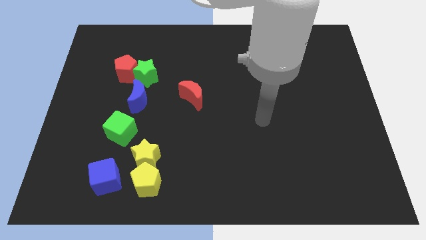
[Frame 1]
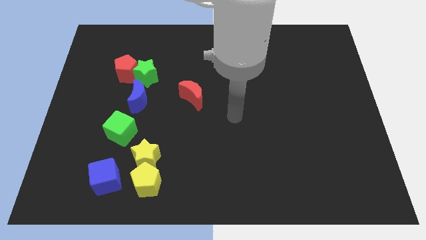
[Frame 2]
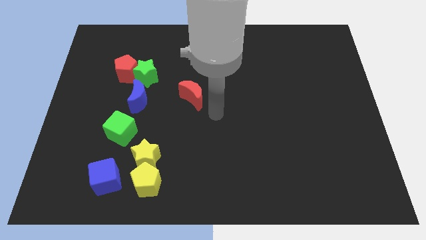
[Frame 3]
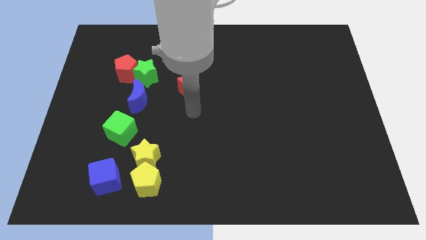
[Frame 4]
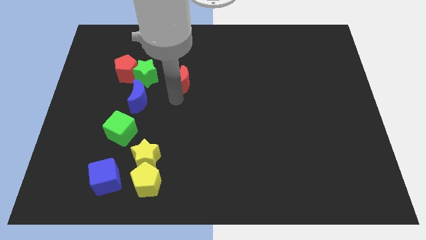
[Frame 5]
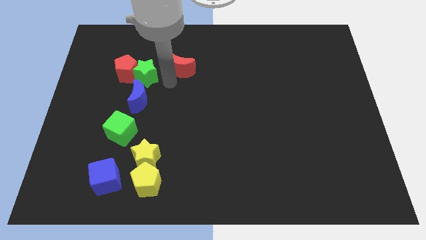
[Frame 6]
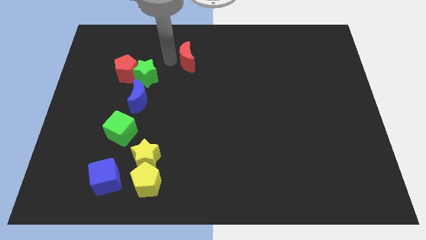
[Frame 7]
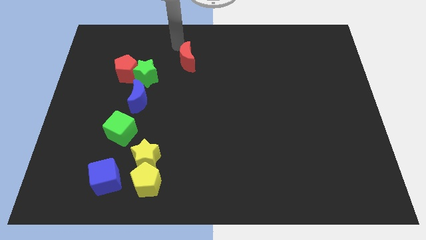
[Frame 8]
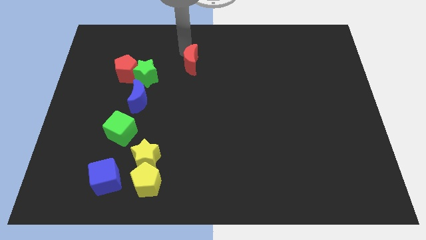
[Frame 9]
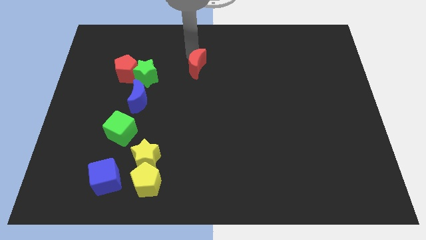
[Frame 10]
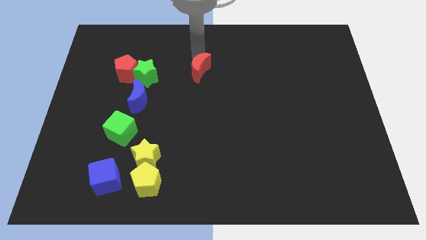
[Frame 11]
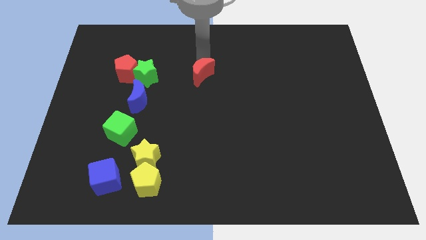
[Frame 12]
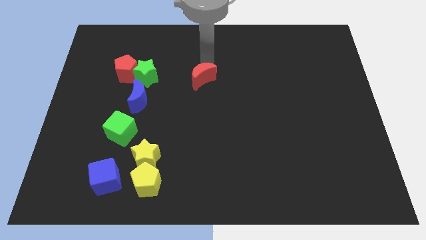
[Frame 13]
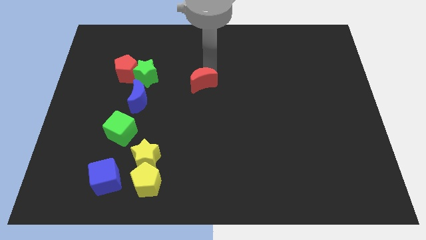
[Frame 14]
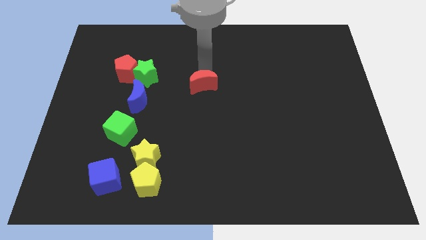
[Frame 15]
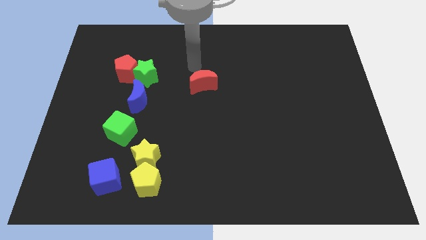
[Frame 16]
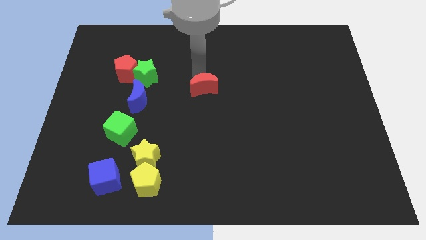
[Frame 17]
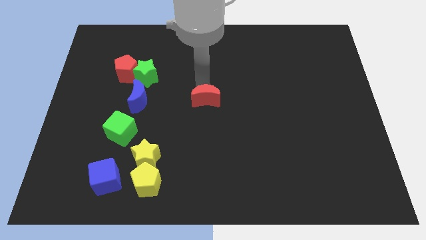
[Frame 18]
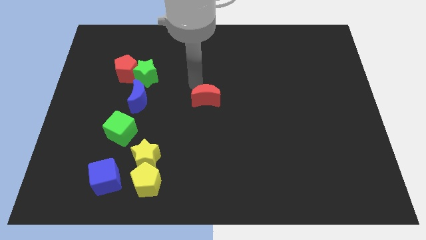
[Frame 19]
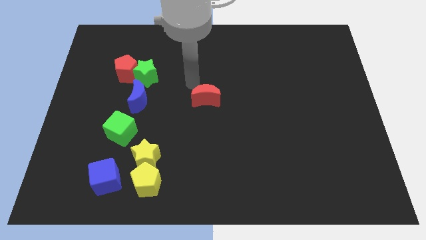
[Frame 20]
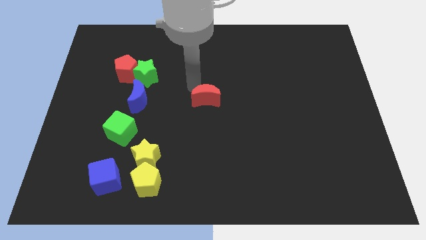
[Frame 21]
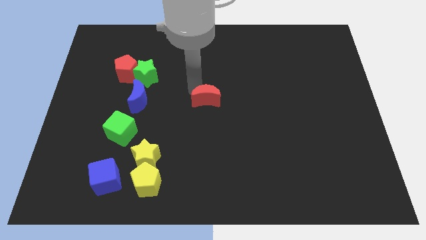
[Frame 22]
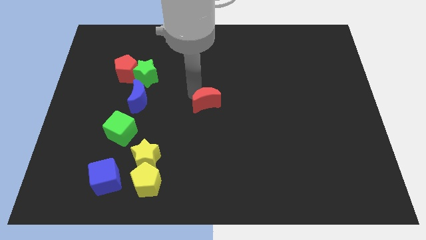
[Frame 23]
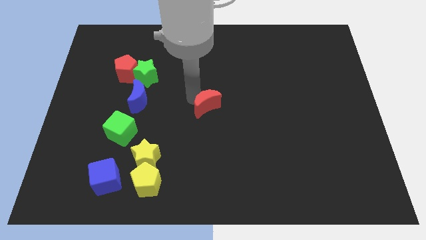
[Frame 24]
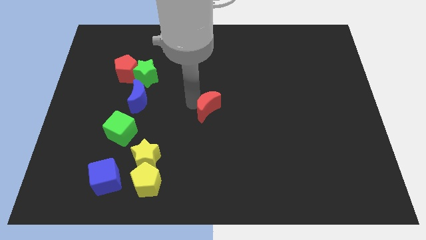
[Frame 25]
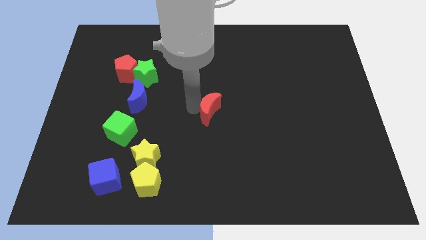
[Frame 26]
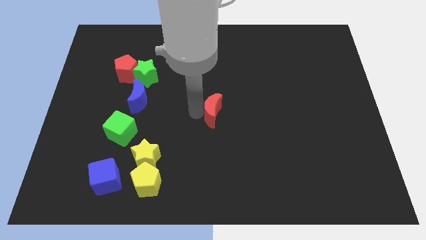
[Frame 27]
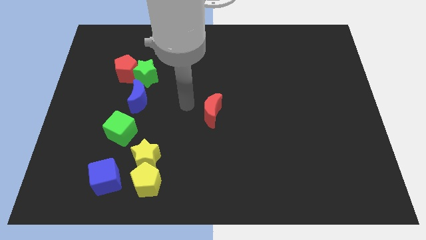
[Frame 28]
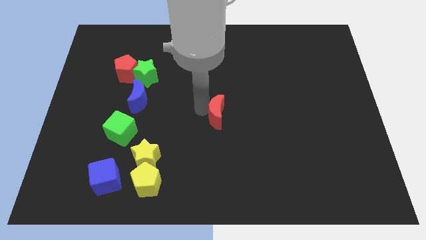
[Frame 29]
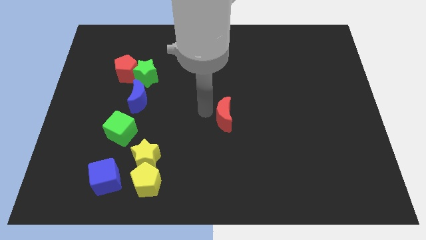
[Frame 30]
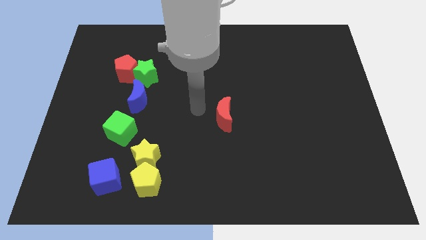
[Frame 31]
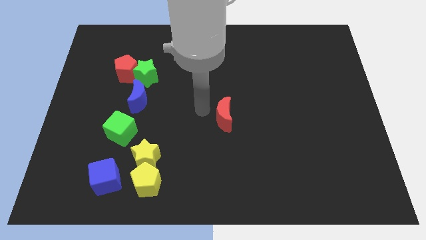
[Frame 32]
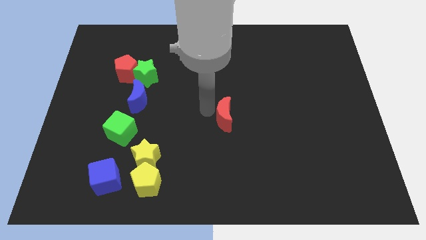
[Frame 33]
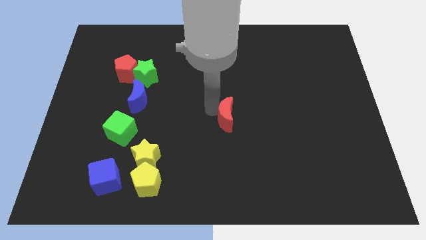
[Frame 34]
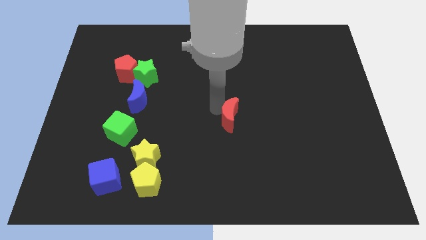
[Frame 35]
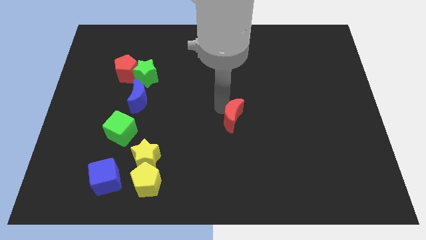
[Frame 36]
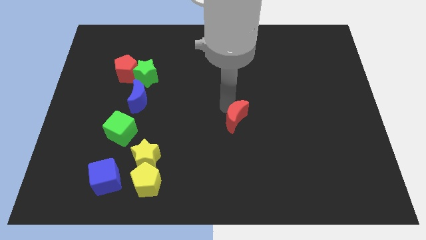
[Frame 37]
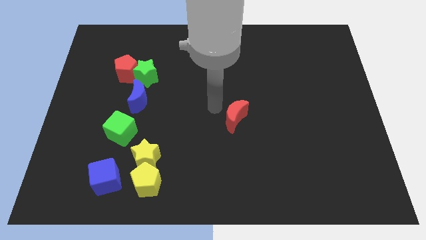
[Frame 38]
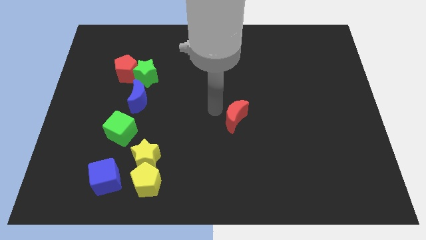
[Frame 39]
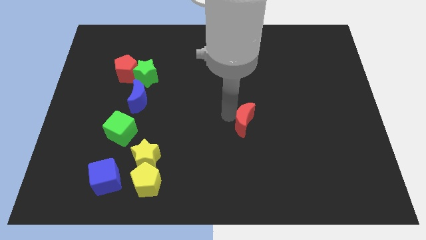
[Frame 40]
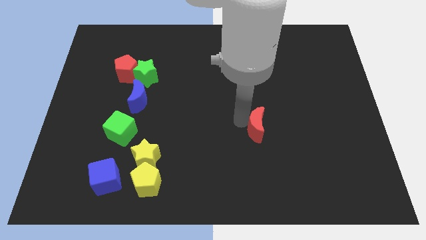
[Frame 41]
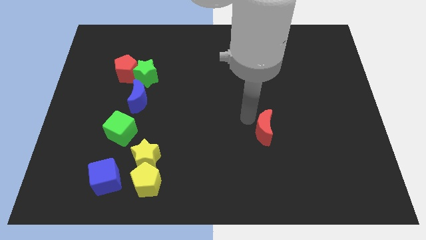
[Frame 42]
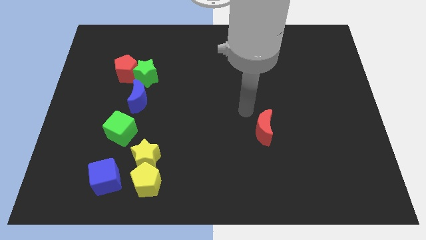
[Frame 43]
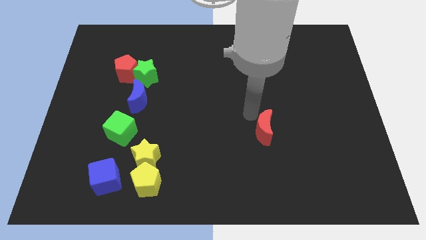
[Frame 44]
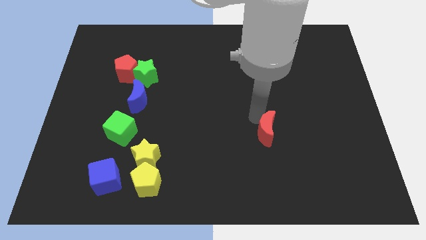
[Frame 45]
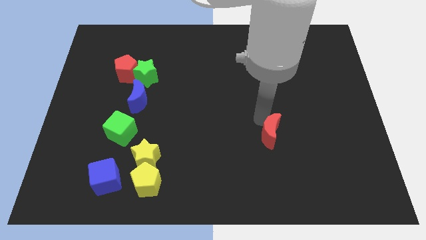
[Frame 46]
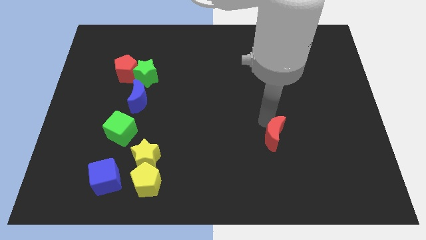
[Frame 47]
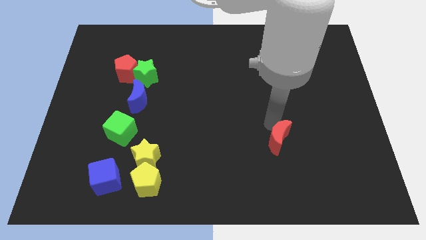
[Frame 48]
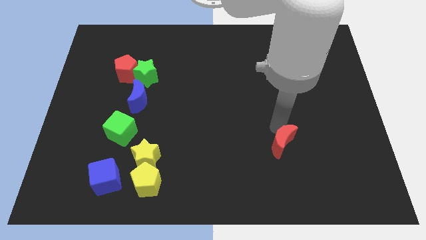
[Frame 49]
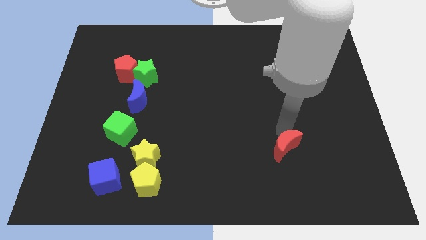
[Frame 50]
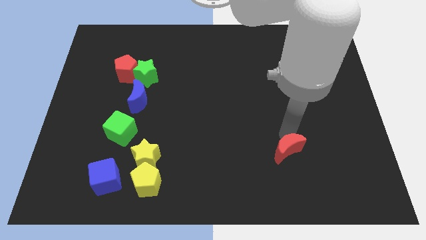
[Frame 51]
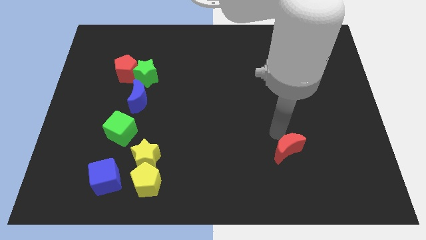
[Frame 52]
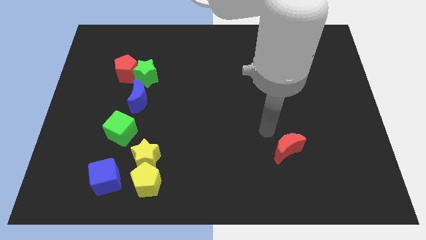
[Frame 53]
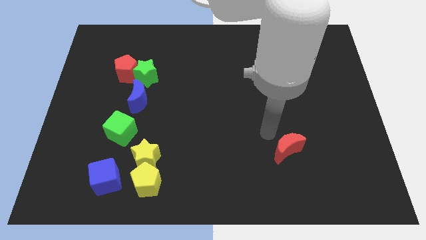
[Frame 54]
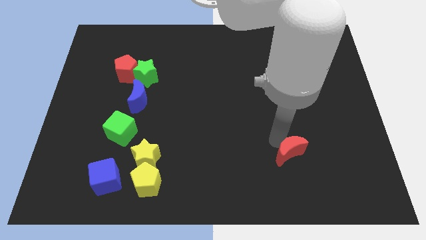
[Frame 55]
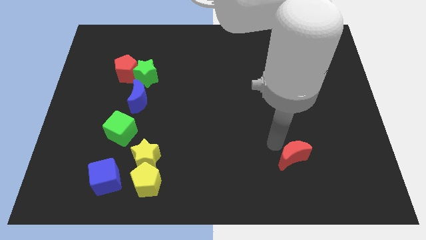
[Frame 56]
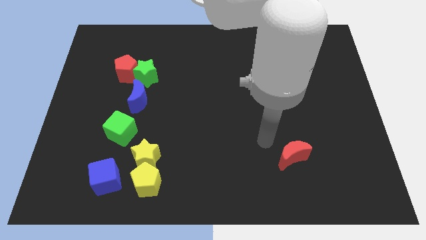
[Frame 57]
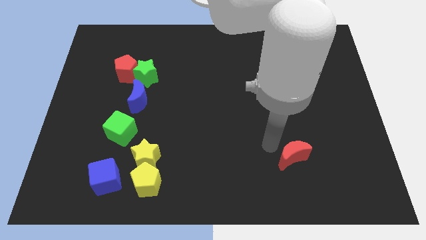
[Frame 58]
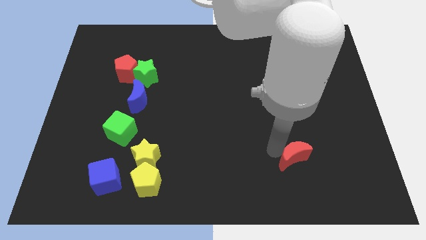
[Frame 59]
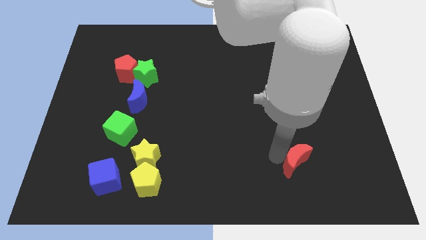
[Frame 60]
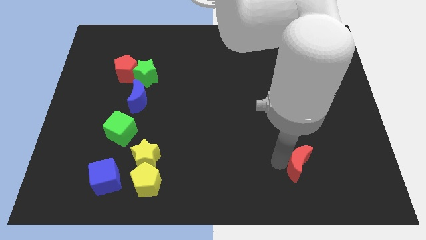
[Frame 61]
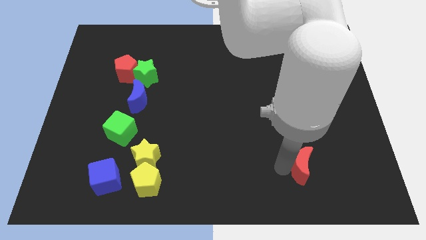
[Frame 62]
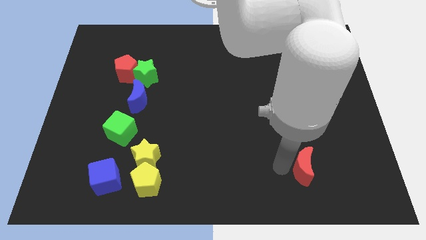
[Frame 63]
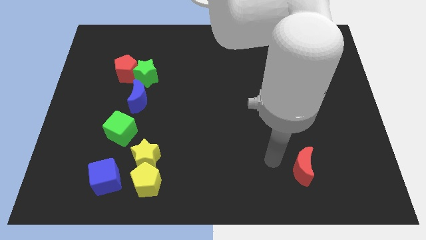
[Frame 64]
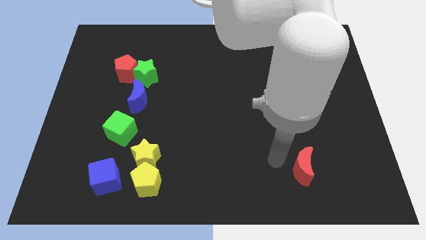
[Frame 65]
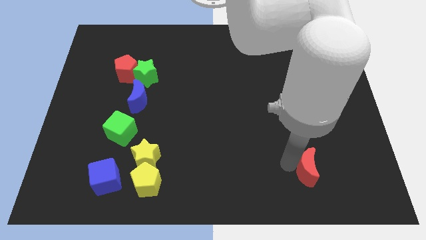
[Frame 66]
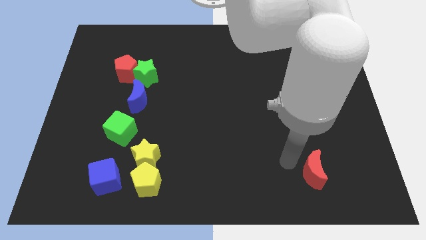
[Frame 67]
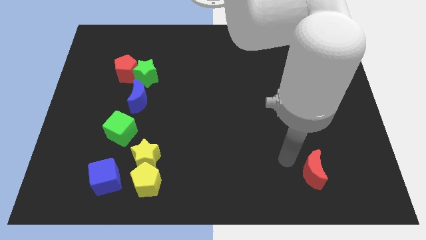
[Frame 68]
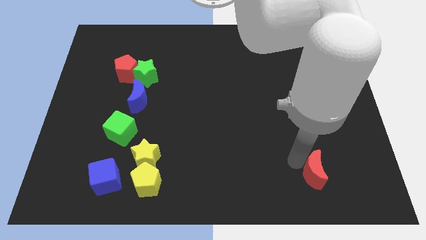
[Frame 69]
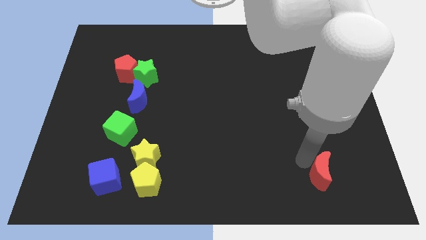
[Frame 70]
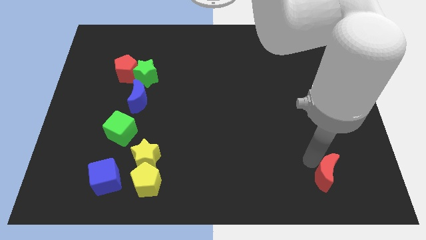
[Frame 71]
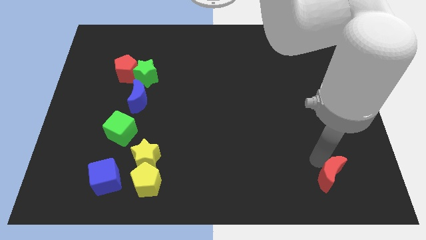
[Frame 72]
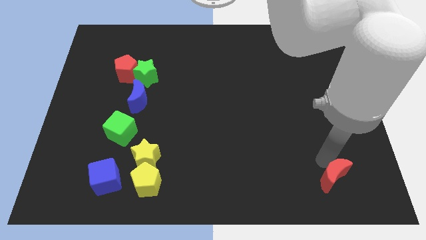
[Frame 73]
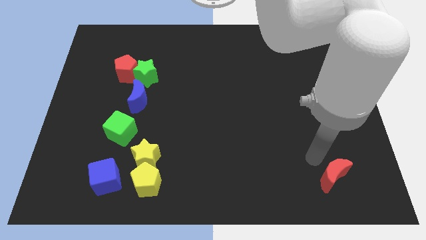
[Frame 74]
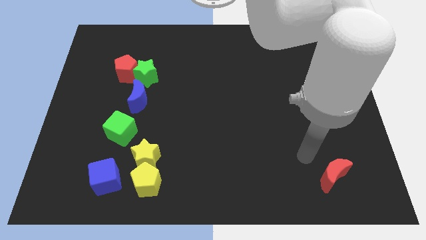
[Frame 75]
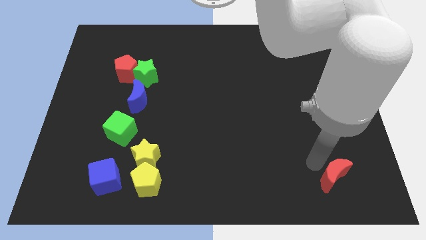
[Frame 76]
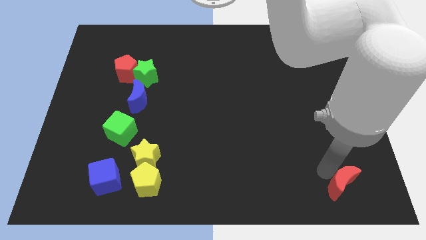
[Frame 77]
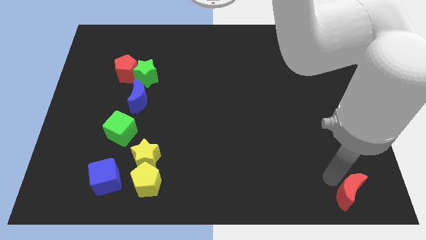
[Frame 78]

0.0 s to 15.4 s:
move the red moon to the lower right corner
